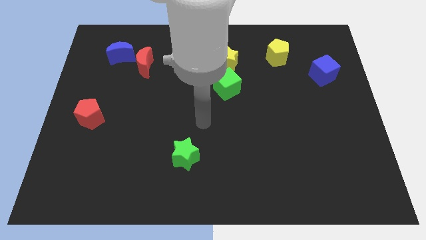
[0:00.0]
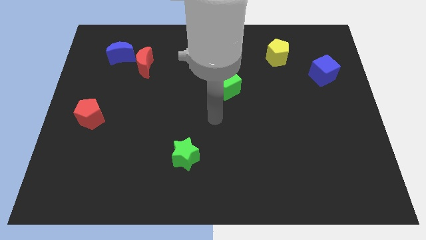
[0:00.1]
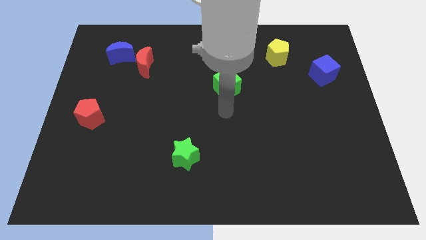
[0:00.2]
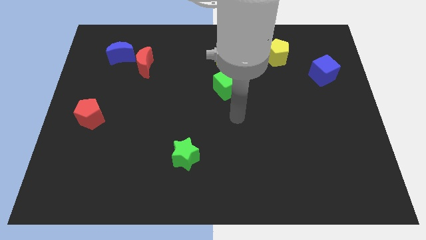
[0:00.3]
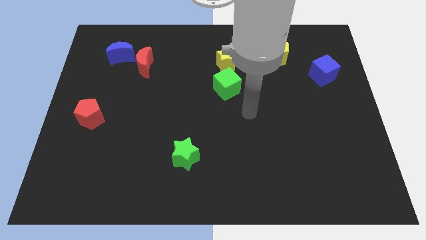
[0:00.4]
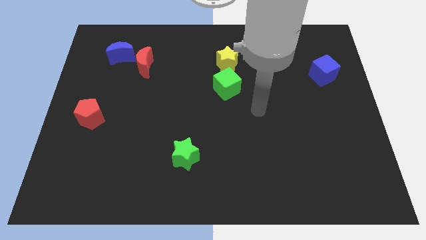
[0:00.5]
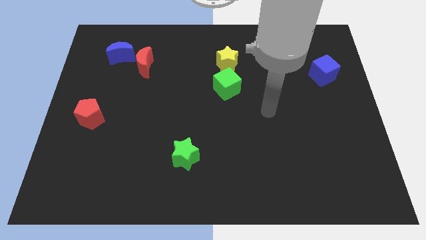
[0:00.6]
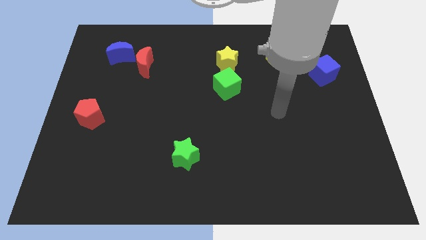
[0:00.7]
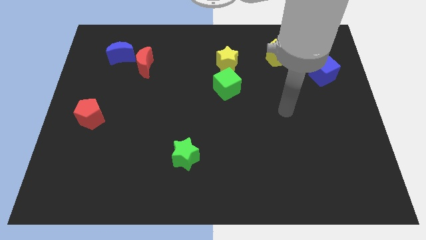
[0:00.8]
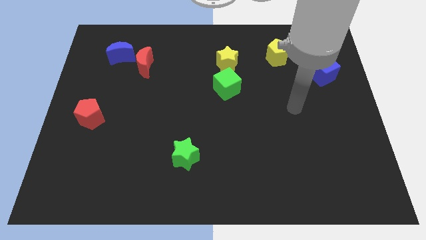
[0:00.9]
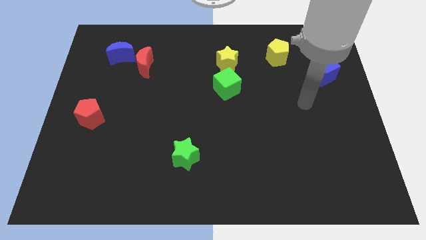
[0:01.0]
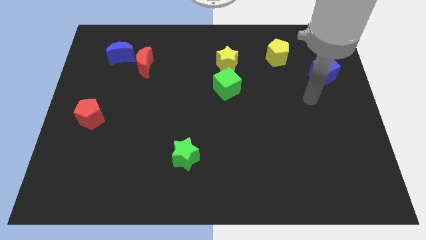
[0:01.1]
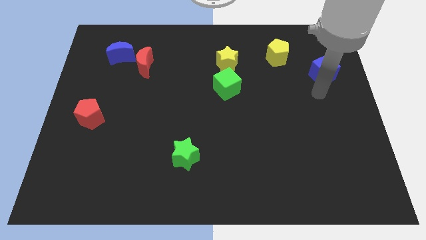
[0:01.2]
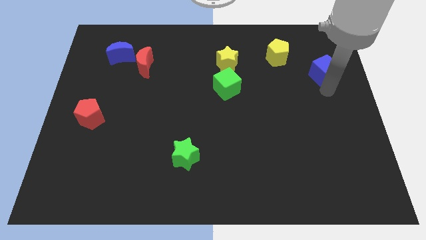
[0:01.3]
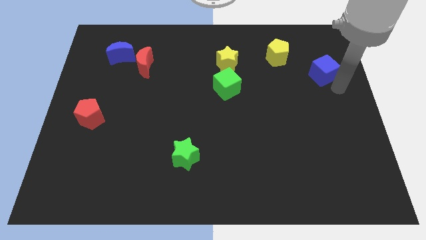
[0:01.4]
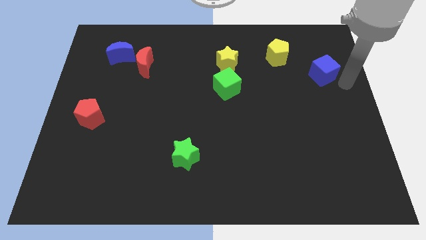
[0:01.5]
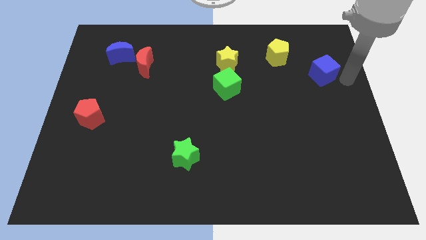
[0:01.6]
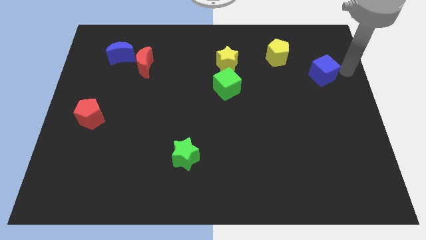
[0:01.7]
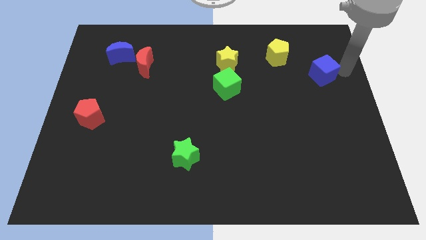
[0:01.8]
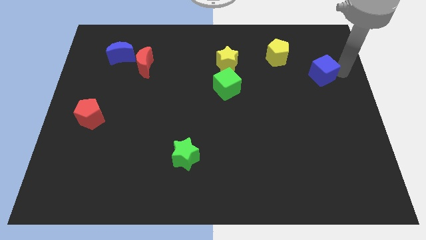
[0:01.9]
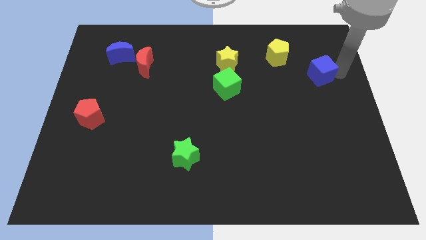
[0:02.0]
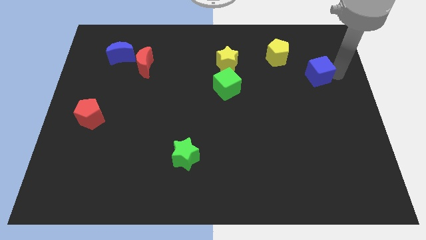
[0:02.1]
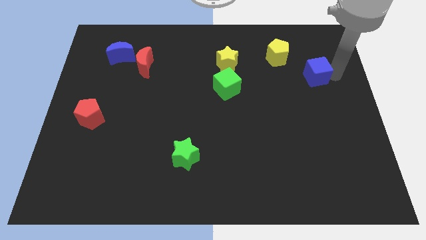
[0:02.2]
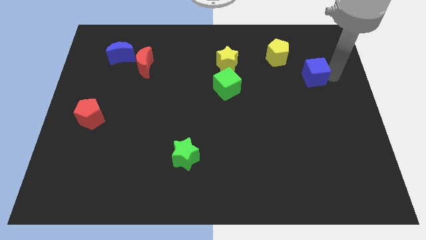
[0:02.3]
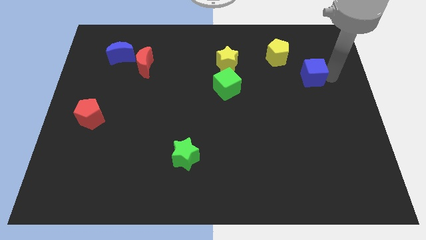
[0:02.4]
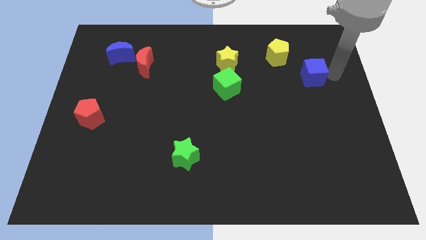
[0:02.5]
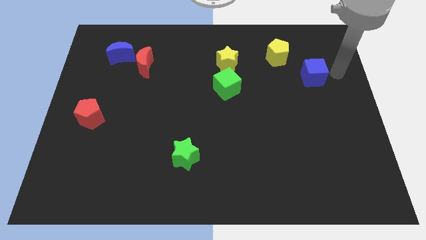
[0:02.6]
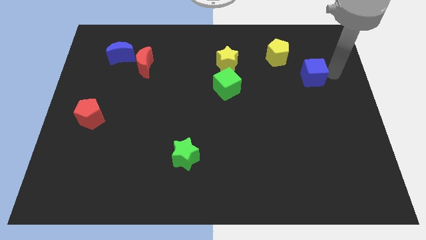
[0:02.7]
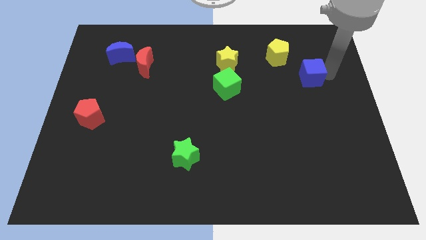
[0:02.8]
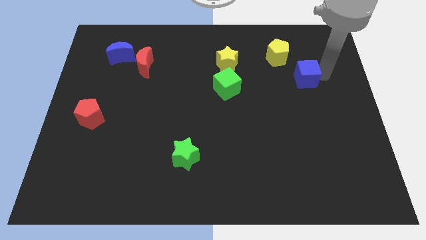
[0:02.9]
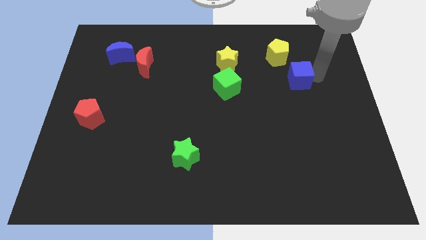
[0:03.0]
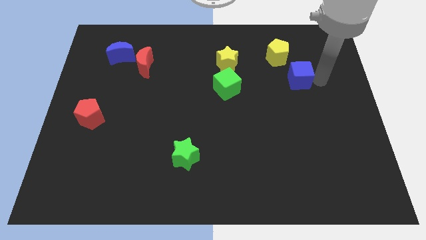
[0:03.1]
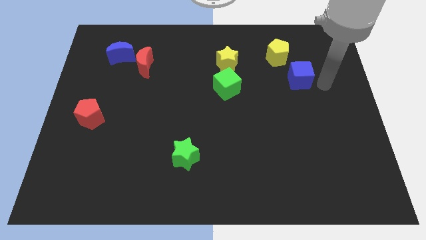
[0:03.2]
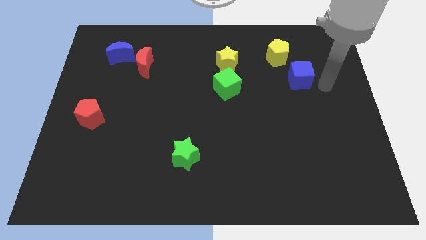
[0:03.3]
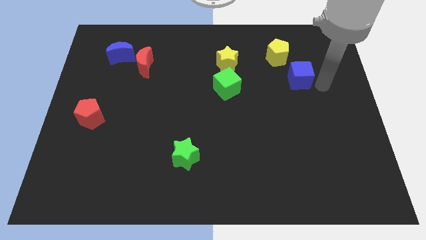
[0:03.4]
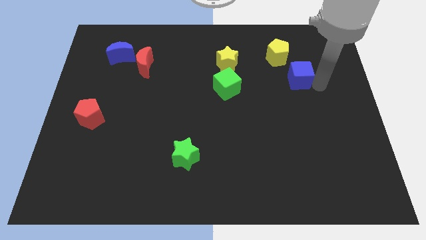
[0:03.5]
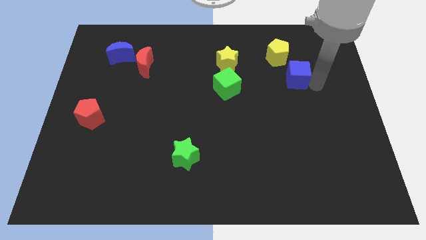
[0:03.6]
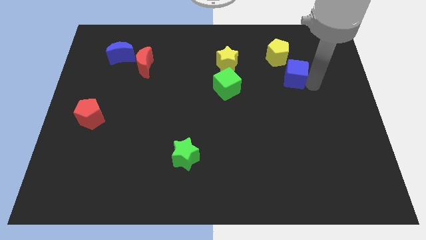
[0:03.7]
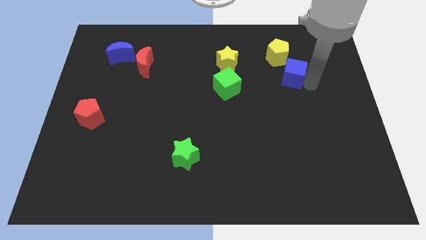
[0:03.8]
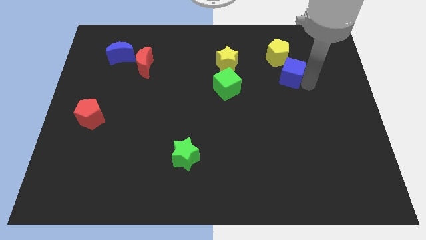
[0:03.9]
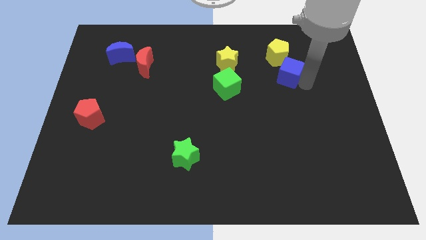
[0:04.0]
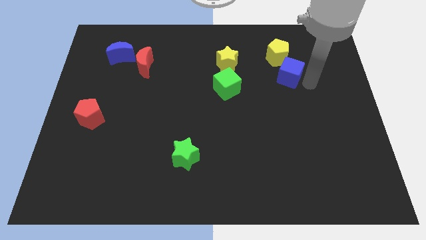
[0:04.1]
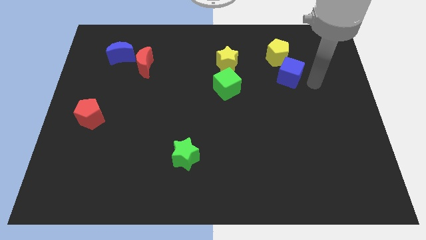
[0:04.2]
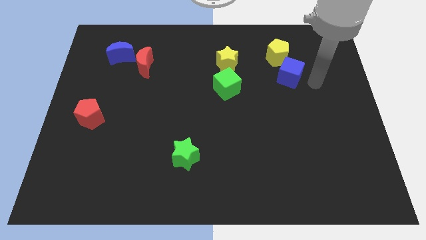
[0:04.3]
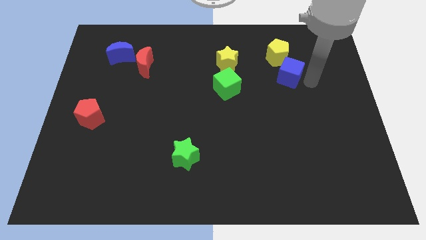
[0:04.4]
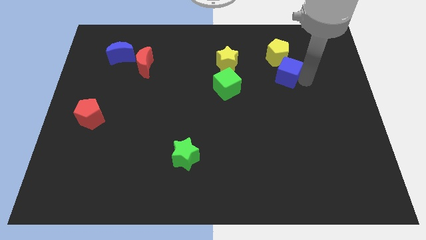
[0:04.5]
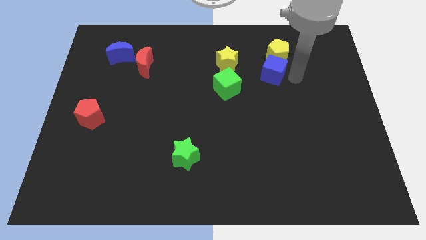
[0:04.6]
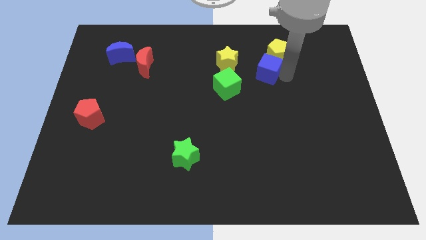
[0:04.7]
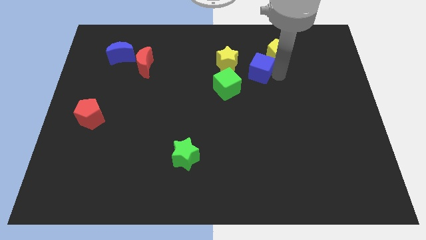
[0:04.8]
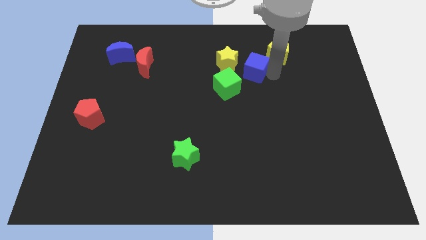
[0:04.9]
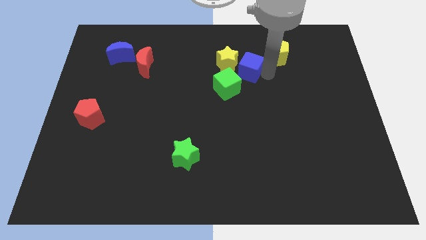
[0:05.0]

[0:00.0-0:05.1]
move the blue cube to the yellow star

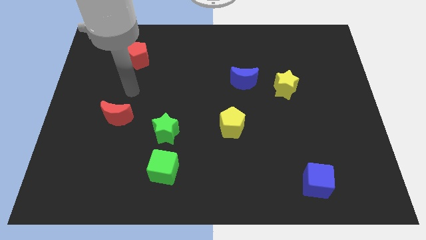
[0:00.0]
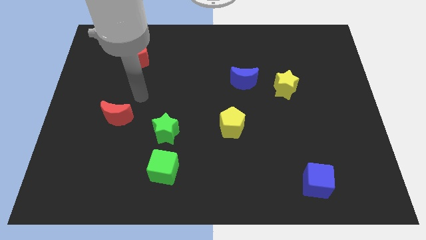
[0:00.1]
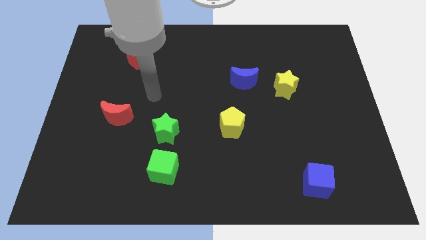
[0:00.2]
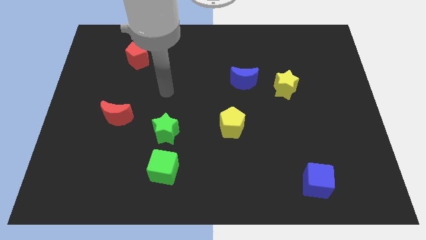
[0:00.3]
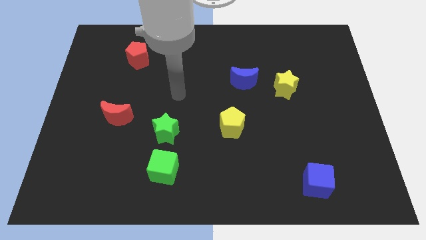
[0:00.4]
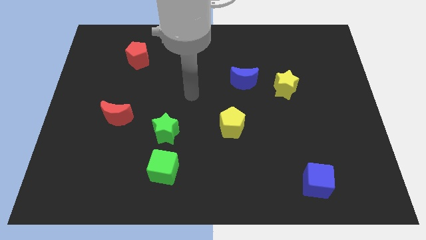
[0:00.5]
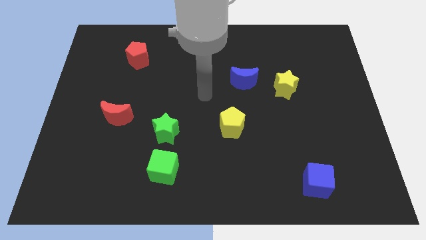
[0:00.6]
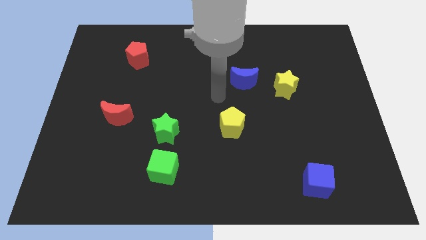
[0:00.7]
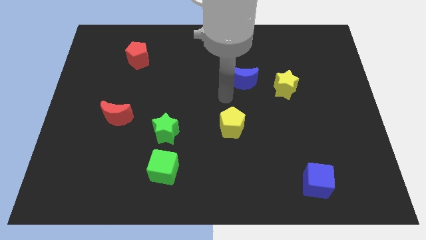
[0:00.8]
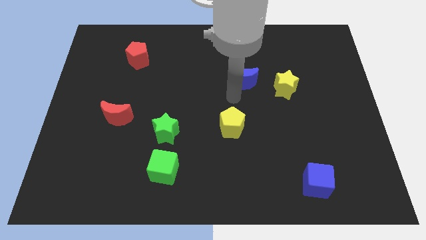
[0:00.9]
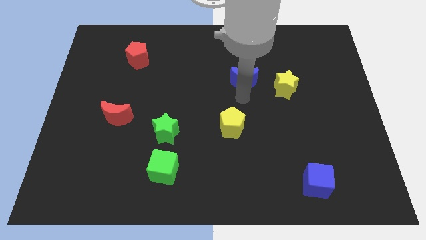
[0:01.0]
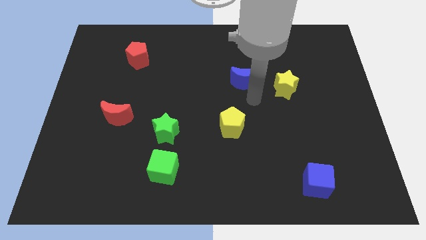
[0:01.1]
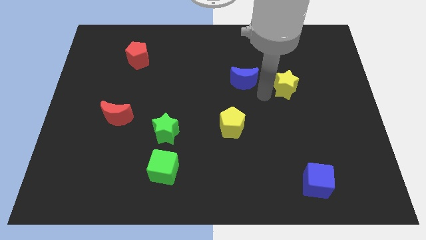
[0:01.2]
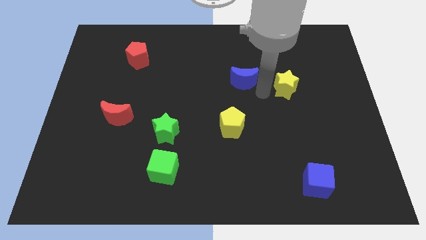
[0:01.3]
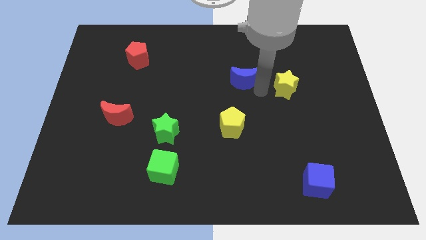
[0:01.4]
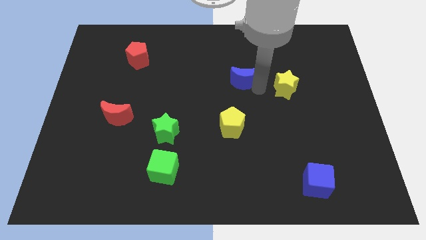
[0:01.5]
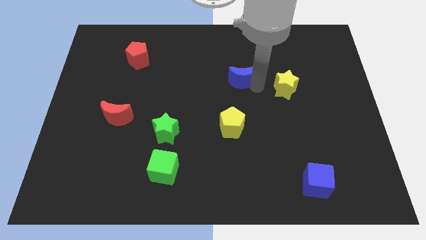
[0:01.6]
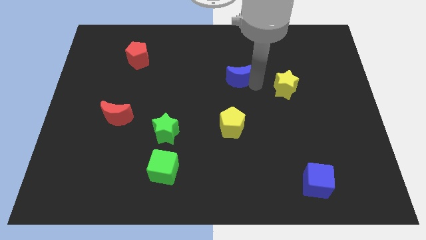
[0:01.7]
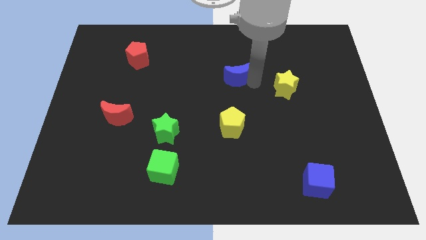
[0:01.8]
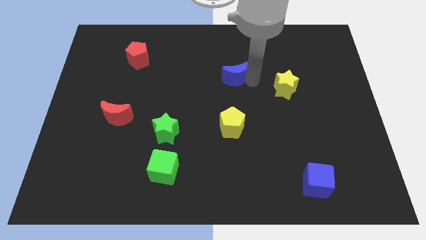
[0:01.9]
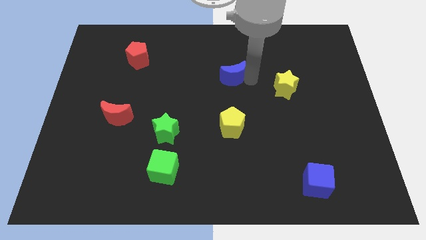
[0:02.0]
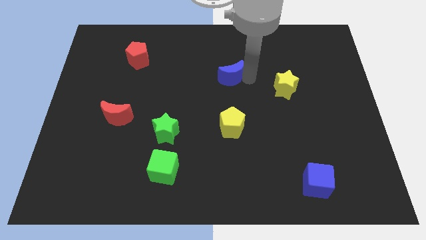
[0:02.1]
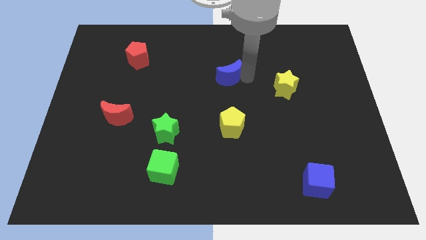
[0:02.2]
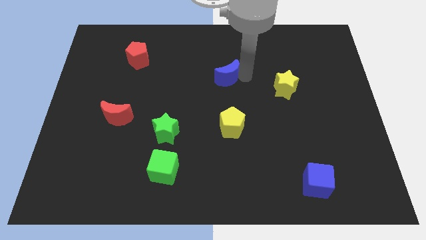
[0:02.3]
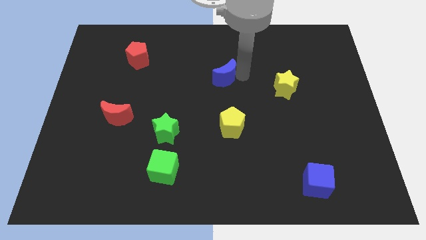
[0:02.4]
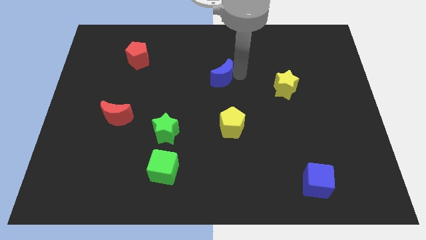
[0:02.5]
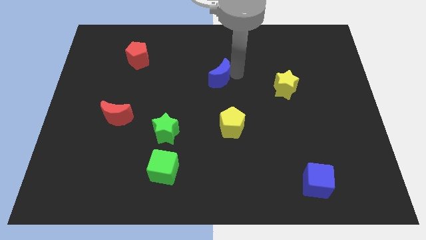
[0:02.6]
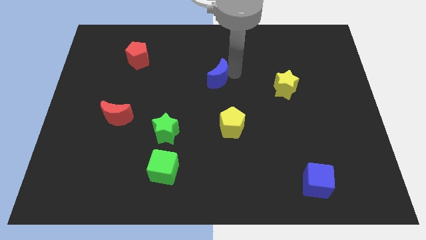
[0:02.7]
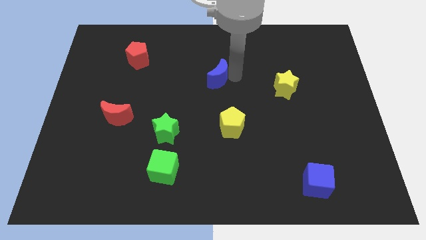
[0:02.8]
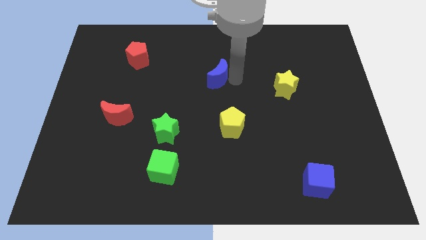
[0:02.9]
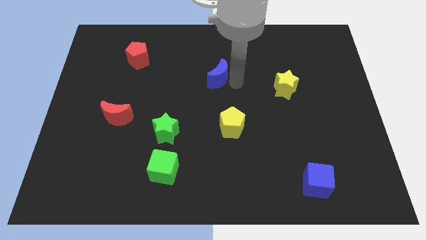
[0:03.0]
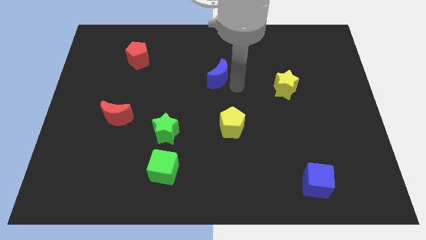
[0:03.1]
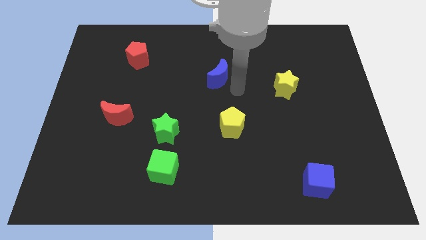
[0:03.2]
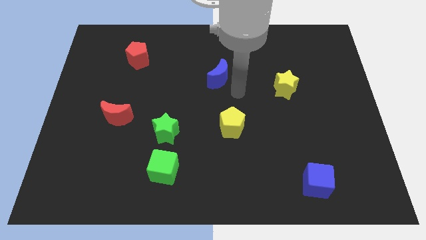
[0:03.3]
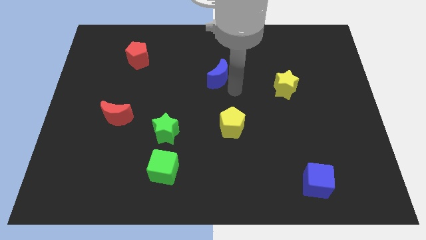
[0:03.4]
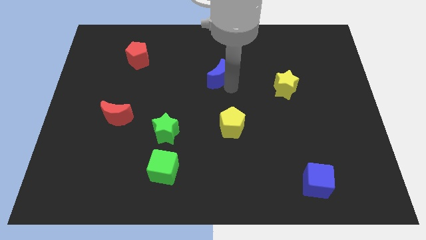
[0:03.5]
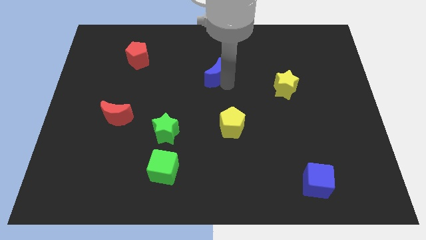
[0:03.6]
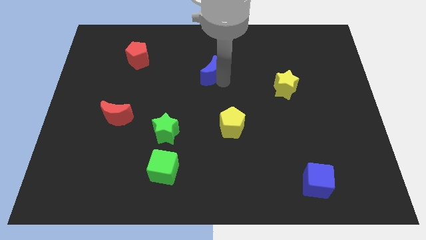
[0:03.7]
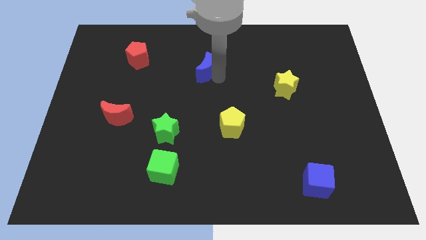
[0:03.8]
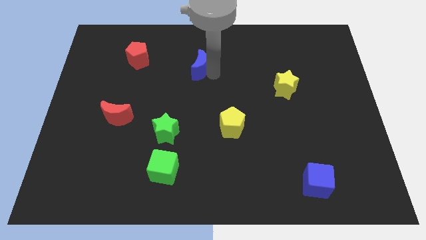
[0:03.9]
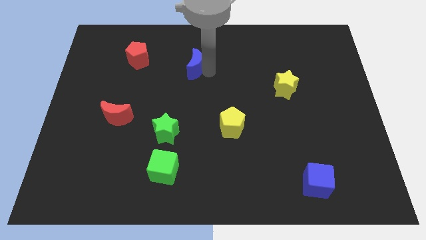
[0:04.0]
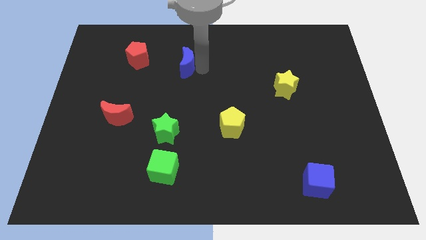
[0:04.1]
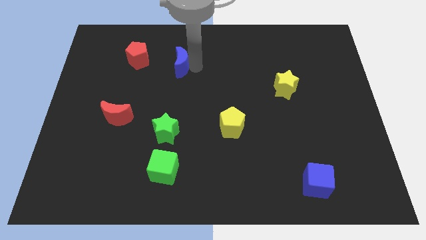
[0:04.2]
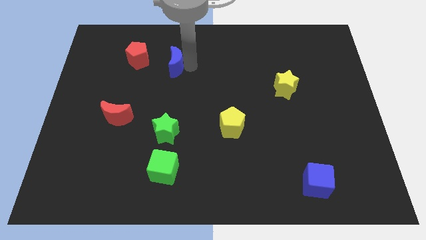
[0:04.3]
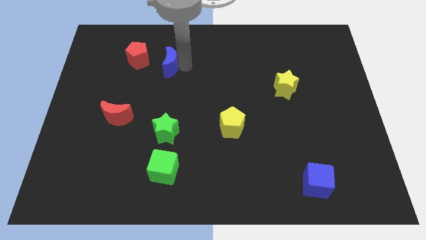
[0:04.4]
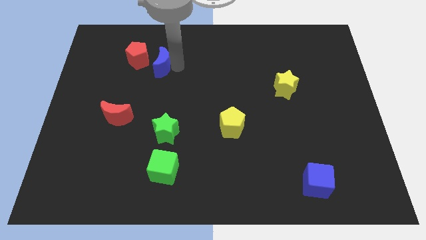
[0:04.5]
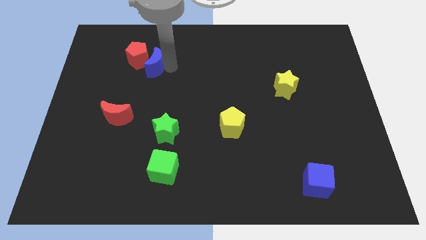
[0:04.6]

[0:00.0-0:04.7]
push the blue moon next to the red pentagon
